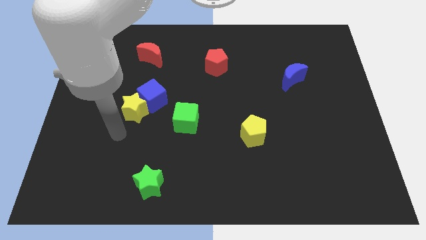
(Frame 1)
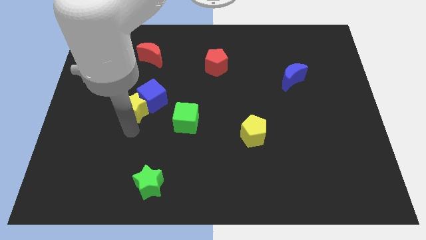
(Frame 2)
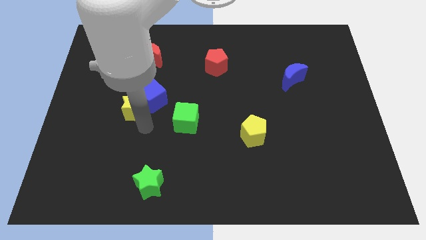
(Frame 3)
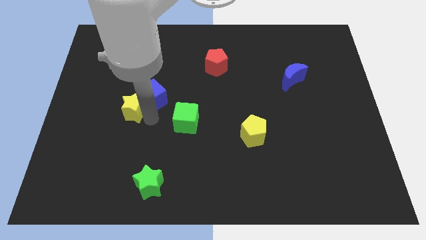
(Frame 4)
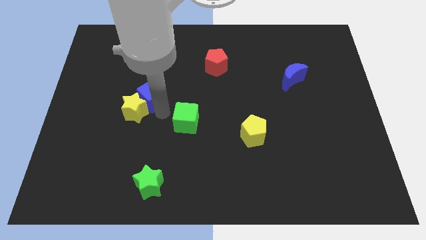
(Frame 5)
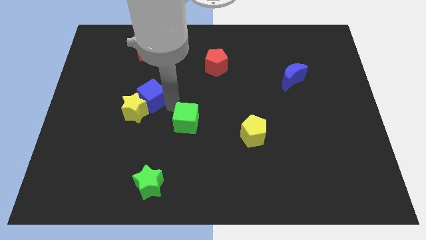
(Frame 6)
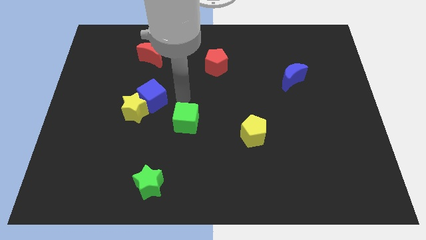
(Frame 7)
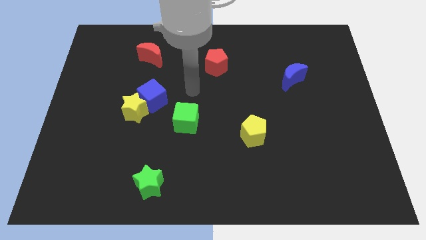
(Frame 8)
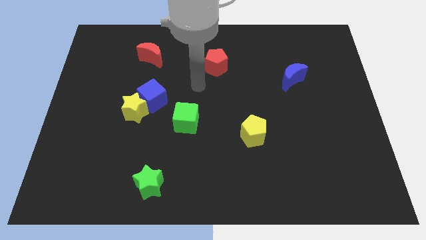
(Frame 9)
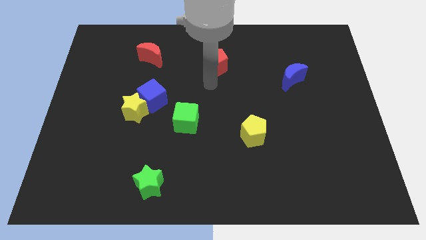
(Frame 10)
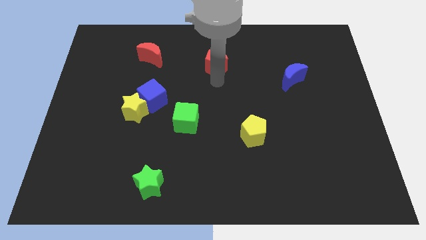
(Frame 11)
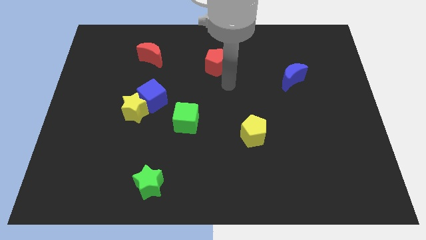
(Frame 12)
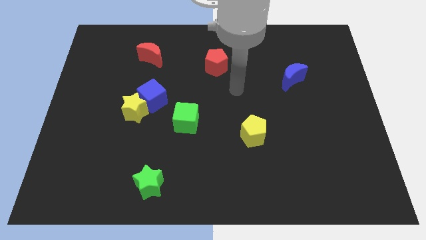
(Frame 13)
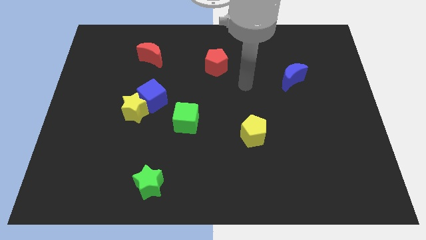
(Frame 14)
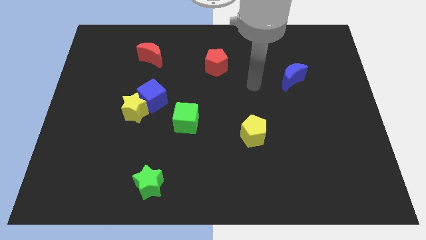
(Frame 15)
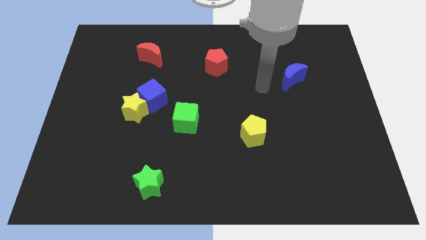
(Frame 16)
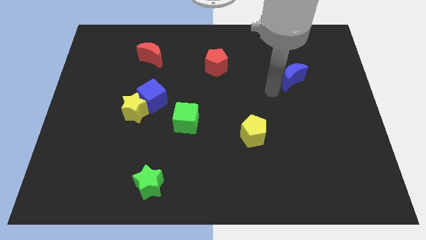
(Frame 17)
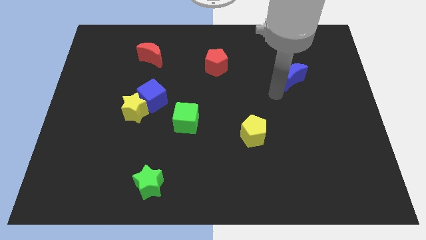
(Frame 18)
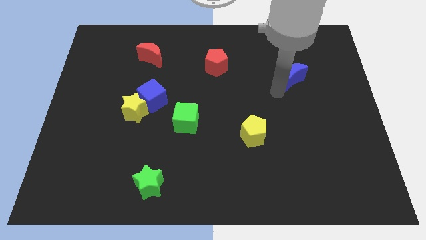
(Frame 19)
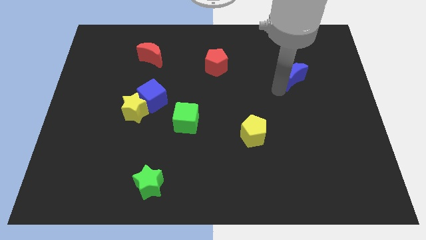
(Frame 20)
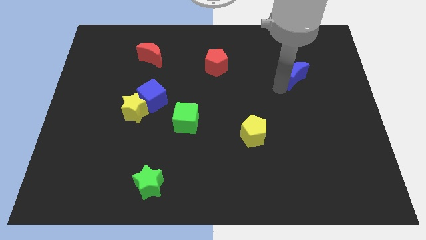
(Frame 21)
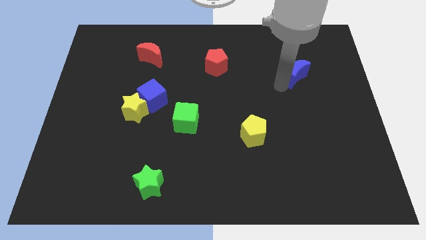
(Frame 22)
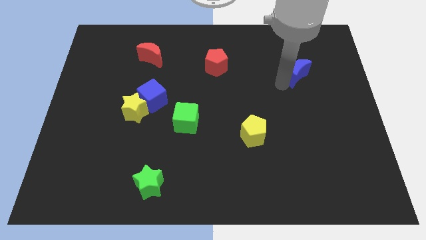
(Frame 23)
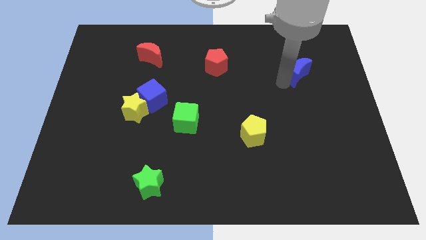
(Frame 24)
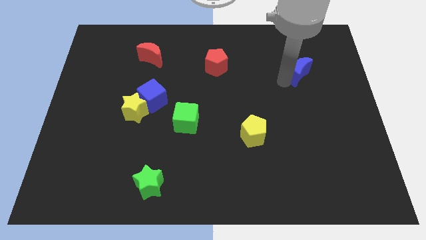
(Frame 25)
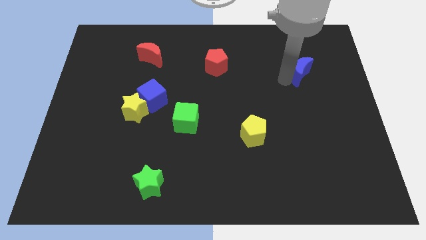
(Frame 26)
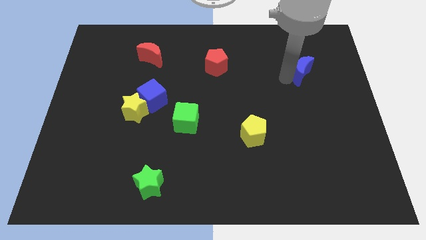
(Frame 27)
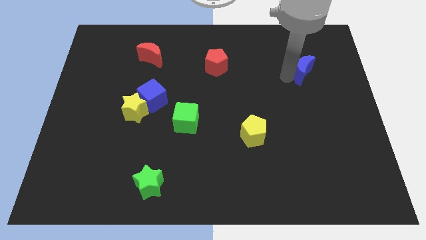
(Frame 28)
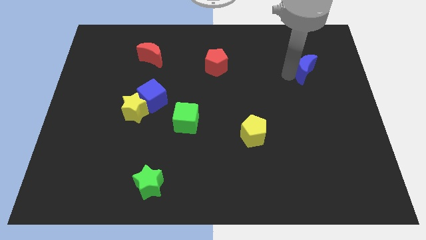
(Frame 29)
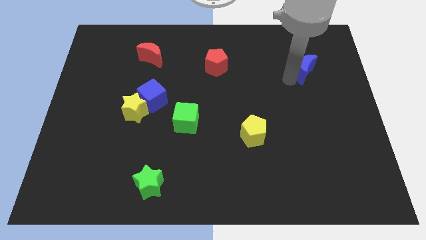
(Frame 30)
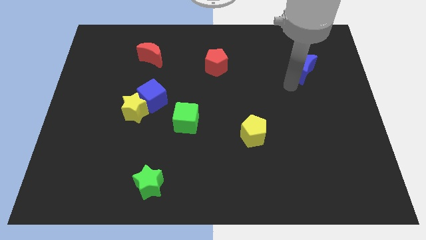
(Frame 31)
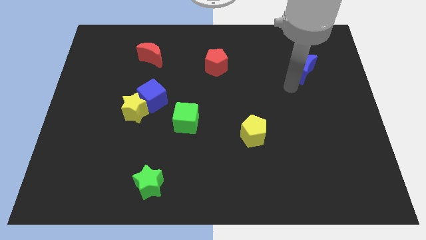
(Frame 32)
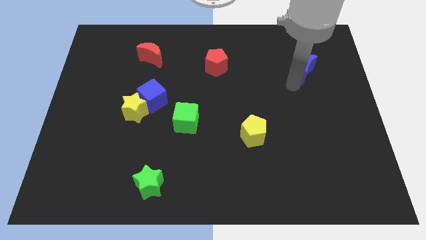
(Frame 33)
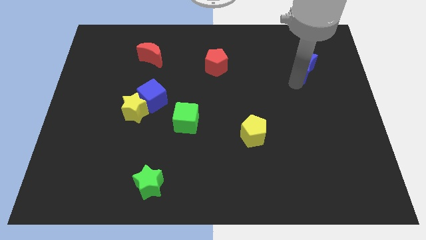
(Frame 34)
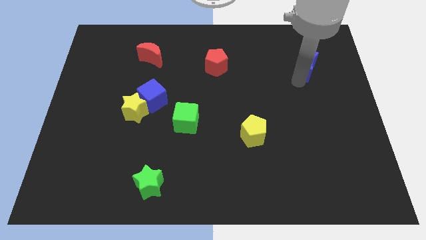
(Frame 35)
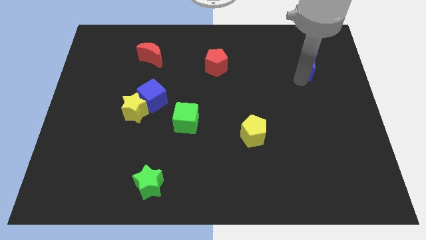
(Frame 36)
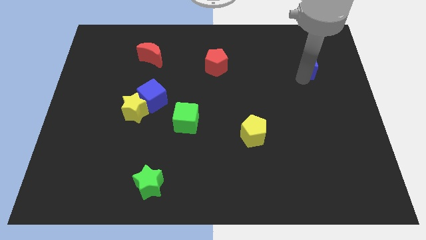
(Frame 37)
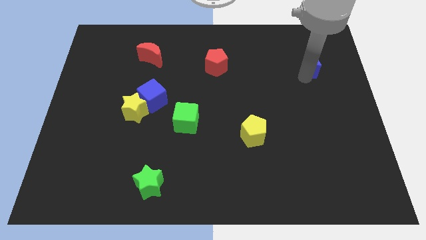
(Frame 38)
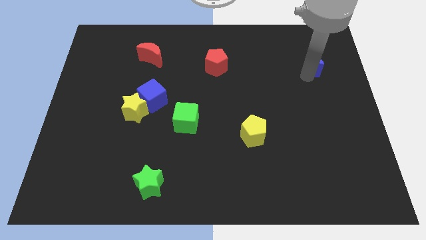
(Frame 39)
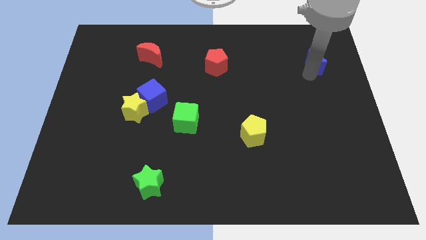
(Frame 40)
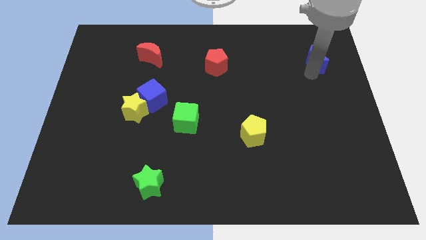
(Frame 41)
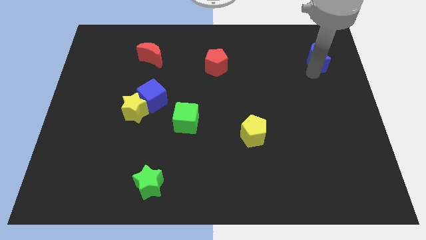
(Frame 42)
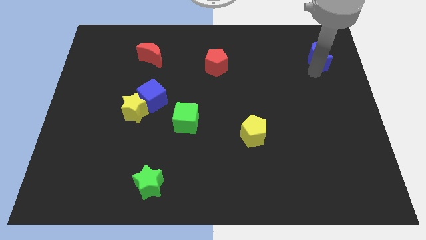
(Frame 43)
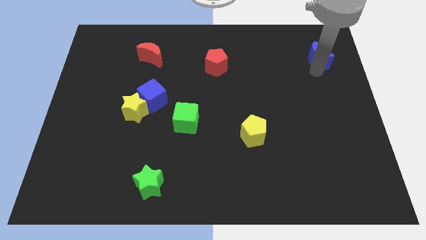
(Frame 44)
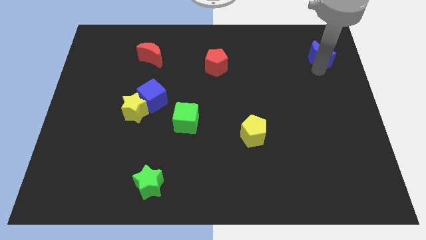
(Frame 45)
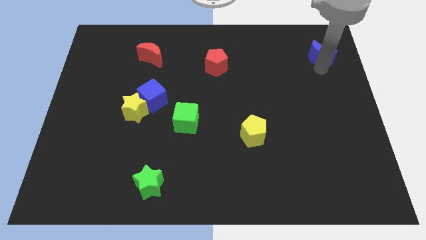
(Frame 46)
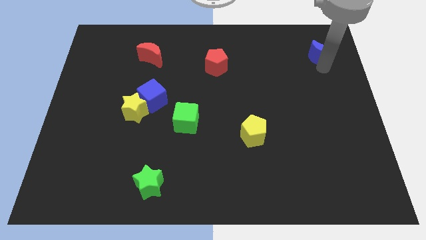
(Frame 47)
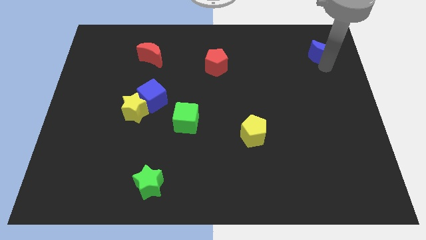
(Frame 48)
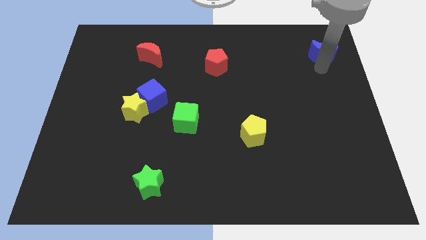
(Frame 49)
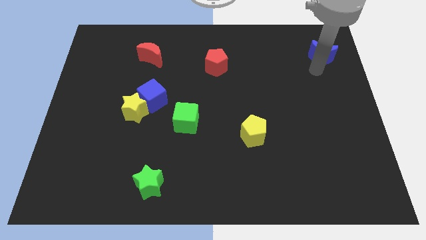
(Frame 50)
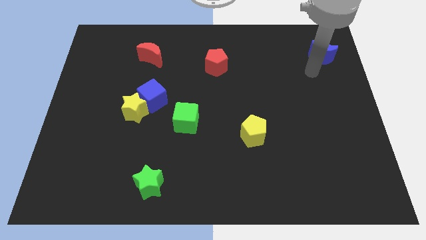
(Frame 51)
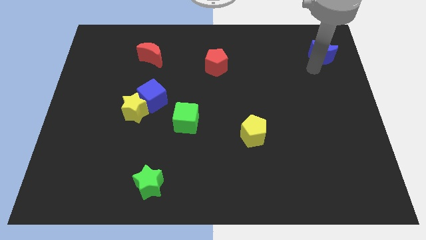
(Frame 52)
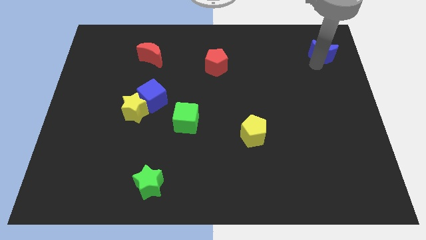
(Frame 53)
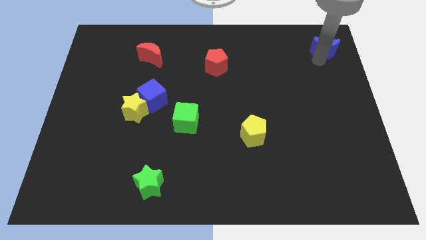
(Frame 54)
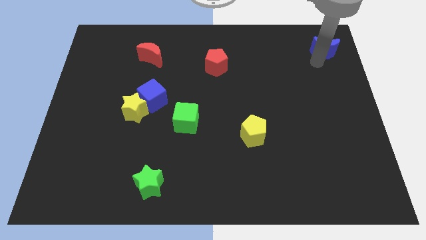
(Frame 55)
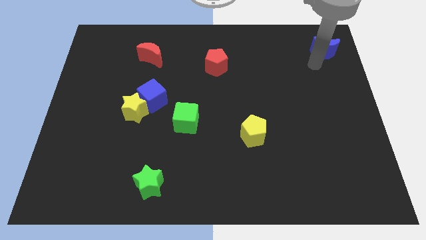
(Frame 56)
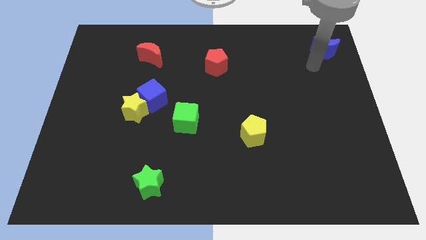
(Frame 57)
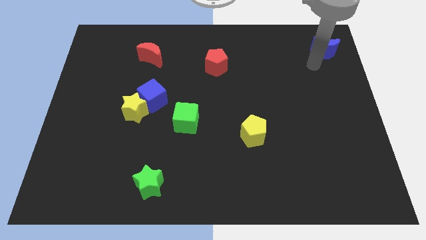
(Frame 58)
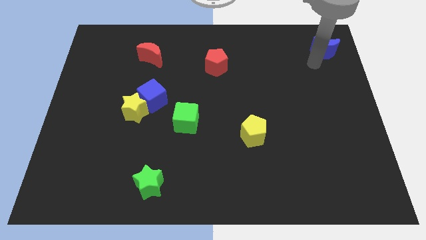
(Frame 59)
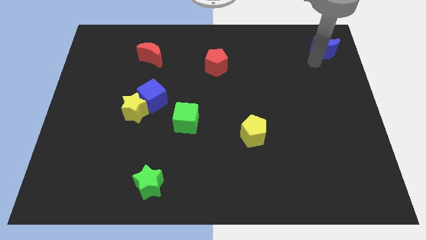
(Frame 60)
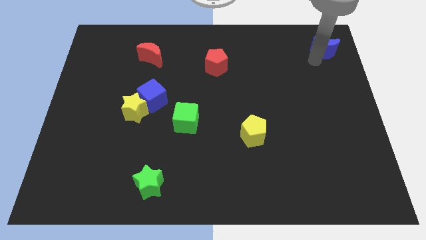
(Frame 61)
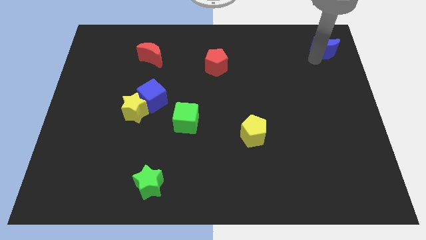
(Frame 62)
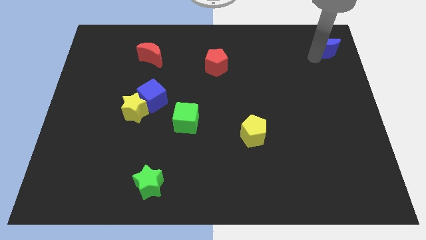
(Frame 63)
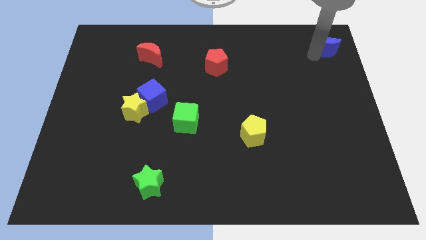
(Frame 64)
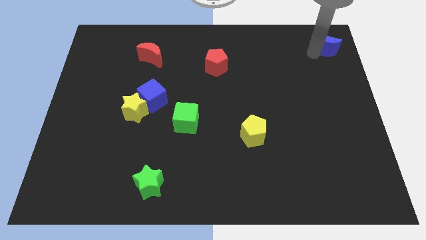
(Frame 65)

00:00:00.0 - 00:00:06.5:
push the blue moon to the top right
